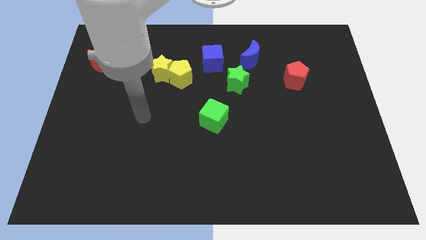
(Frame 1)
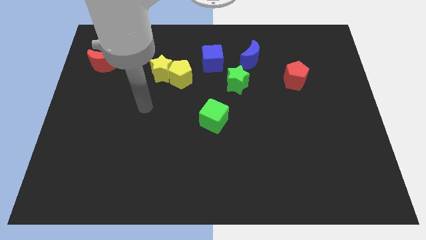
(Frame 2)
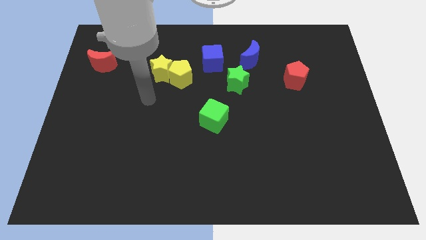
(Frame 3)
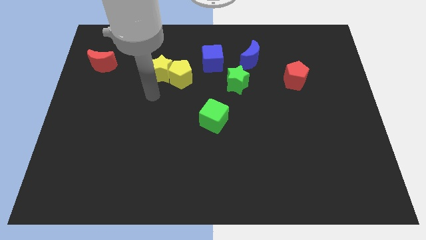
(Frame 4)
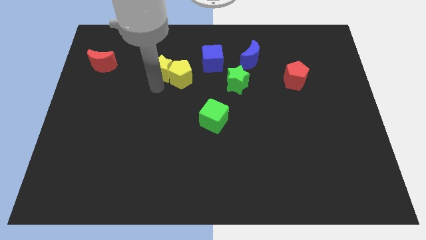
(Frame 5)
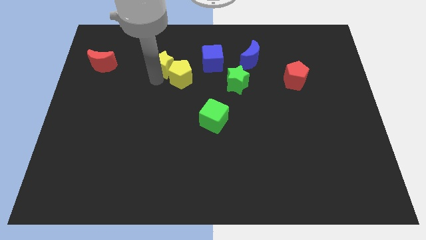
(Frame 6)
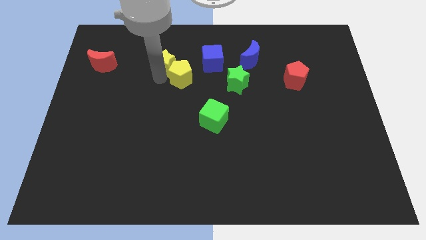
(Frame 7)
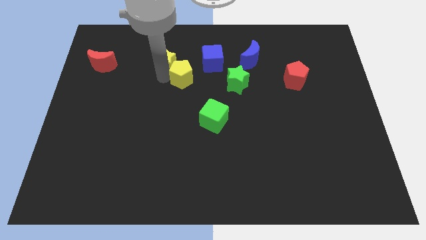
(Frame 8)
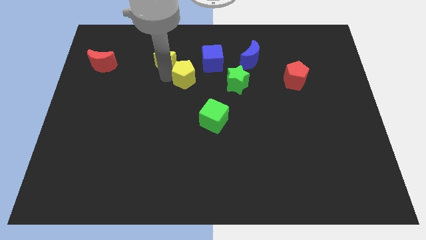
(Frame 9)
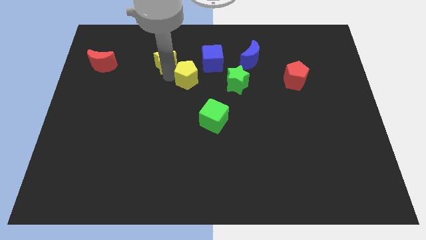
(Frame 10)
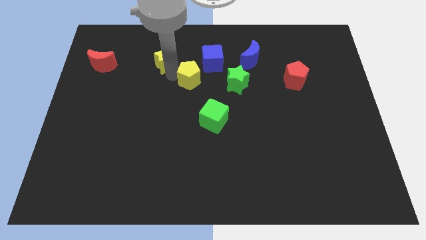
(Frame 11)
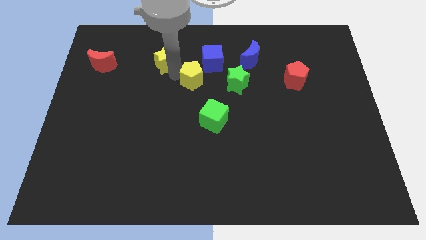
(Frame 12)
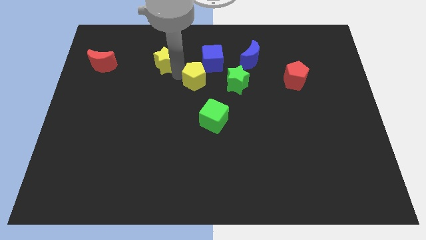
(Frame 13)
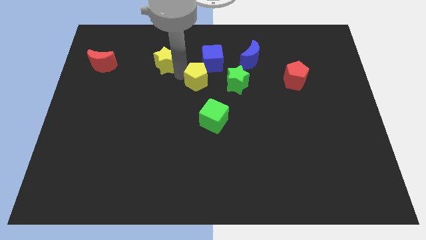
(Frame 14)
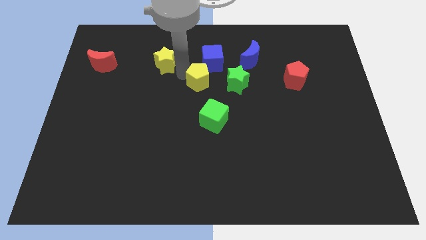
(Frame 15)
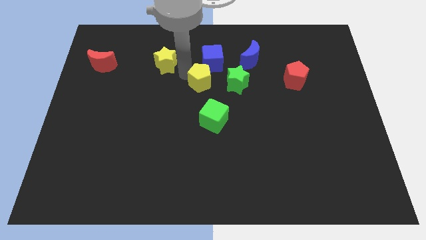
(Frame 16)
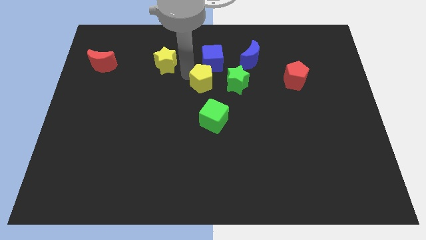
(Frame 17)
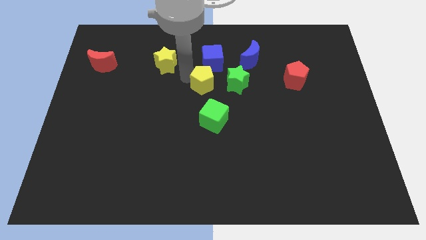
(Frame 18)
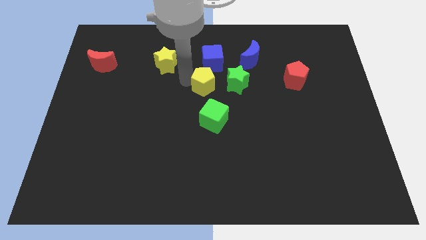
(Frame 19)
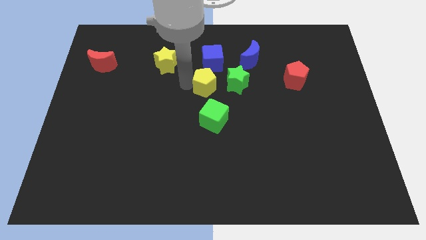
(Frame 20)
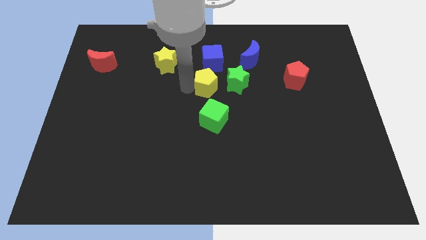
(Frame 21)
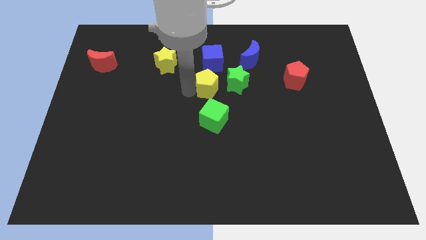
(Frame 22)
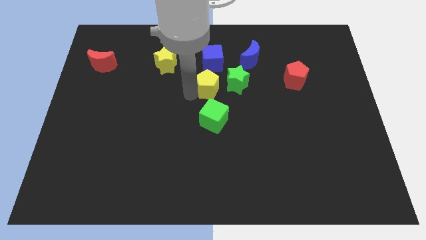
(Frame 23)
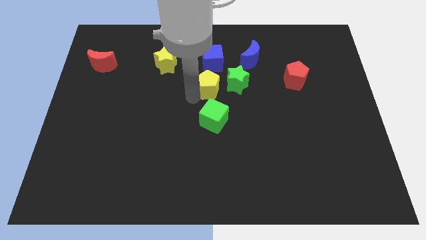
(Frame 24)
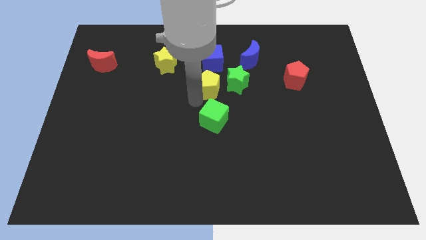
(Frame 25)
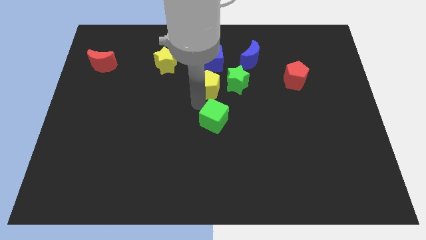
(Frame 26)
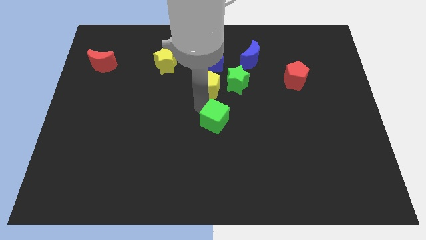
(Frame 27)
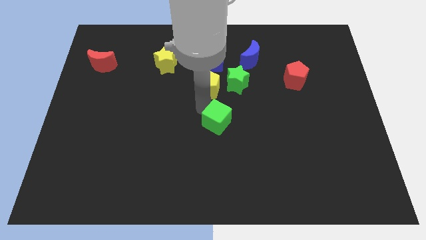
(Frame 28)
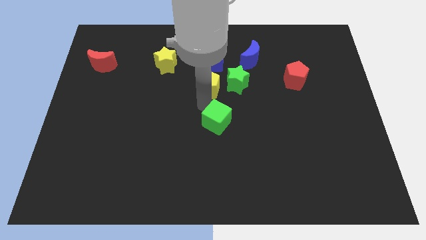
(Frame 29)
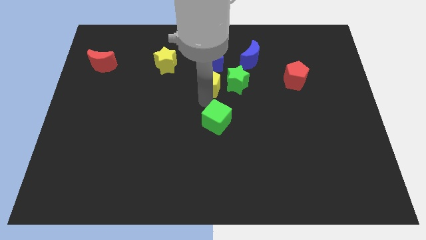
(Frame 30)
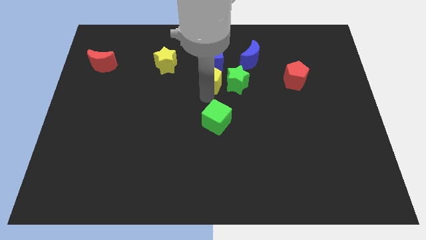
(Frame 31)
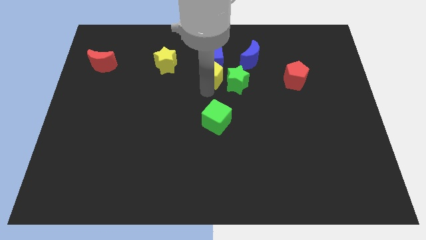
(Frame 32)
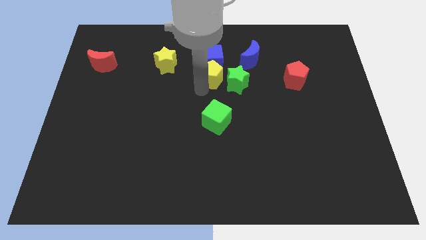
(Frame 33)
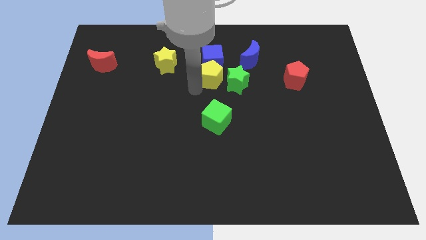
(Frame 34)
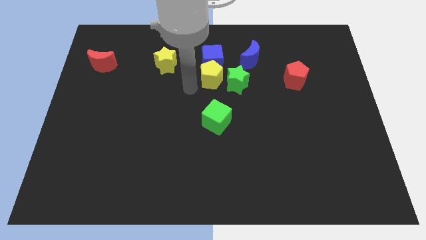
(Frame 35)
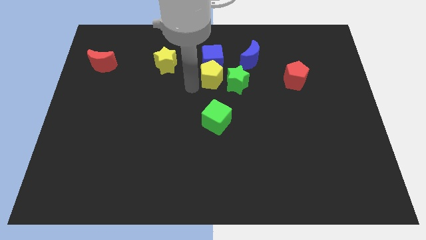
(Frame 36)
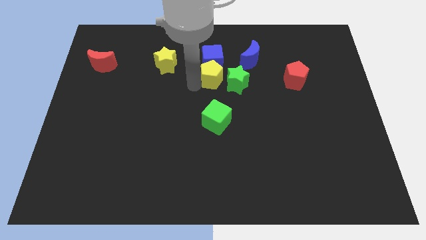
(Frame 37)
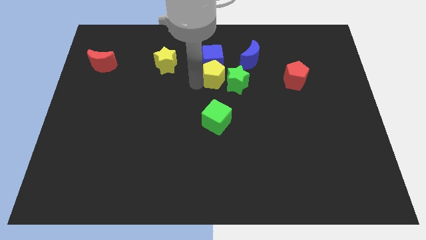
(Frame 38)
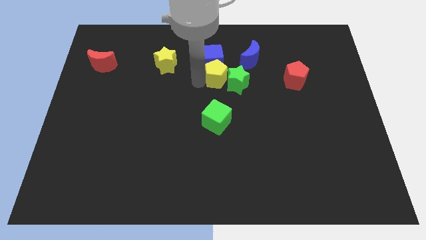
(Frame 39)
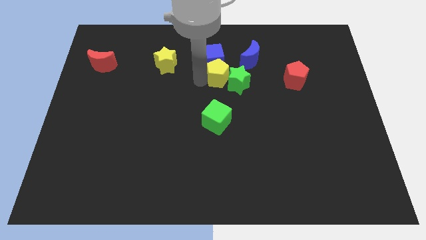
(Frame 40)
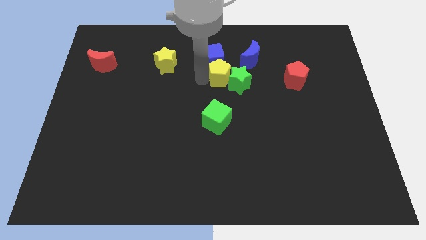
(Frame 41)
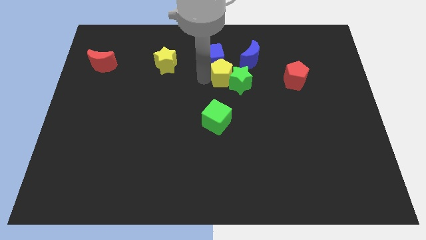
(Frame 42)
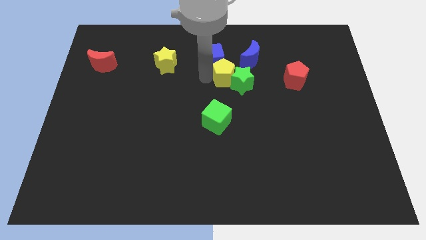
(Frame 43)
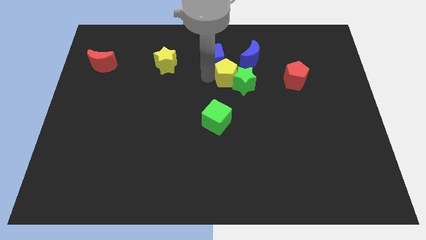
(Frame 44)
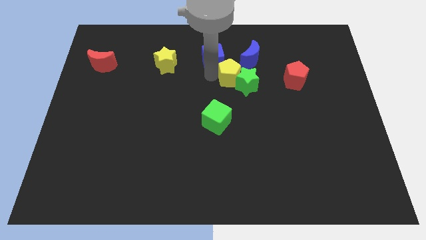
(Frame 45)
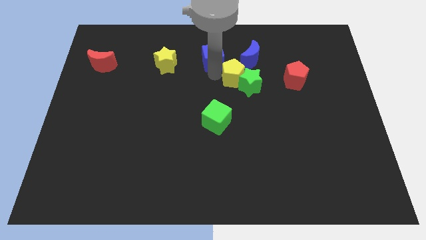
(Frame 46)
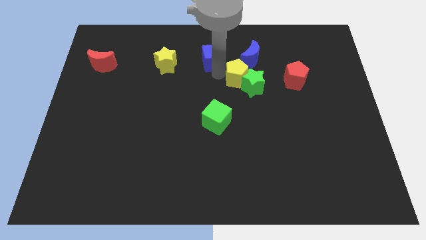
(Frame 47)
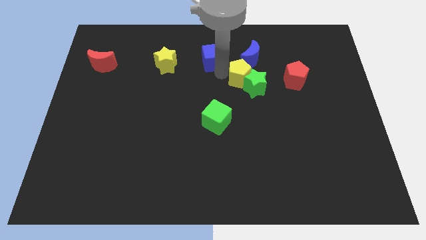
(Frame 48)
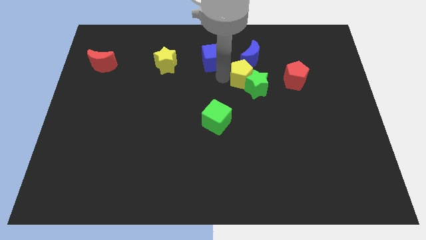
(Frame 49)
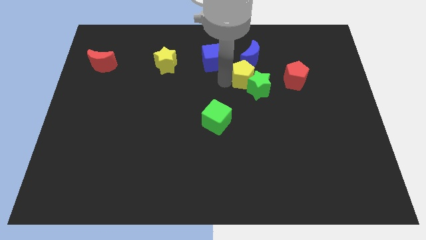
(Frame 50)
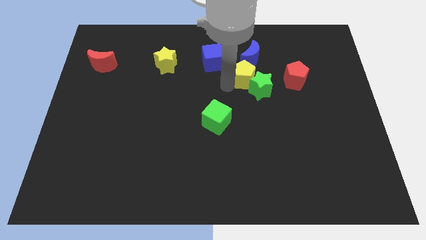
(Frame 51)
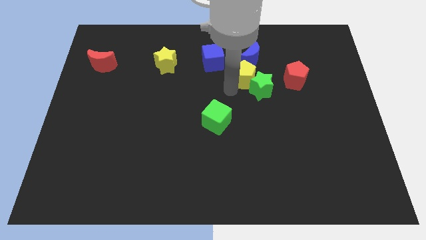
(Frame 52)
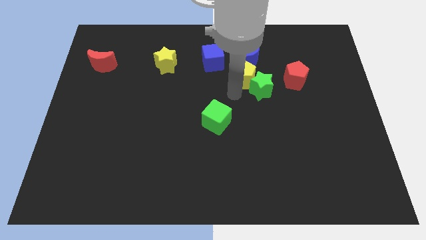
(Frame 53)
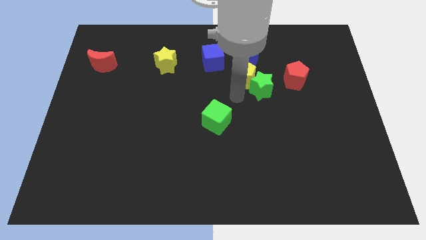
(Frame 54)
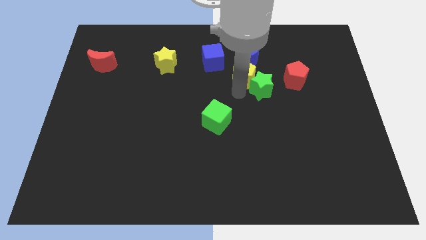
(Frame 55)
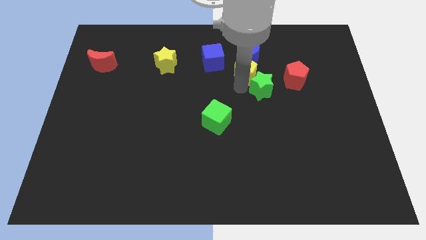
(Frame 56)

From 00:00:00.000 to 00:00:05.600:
push the yellow pentagon to the blue moon
